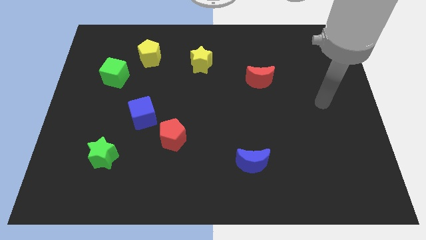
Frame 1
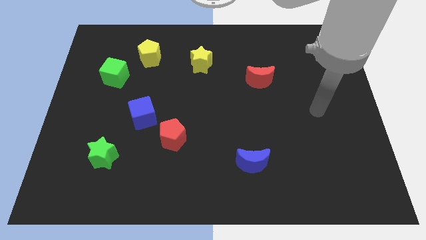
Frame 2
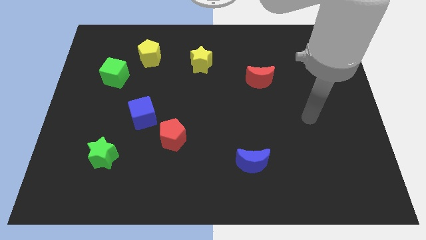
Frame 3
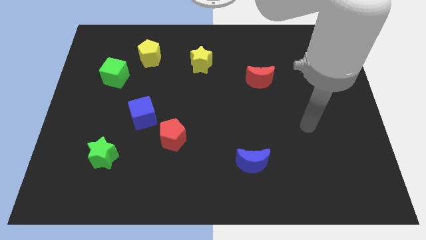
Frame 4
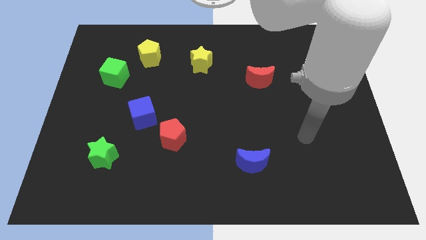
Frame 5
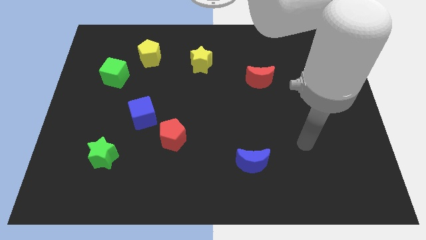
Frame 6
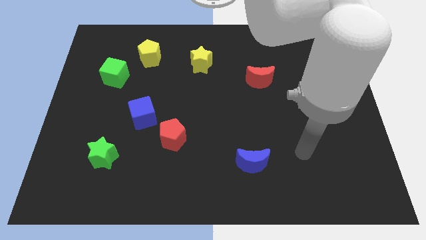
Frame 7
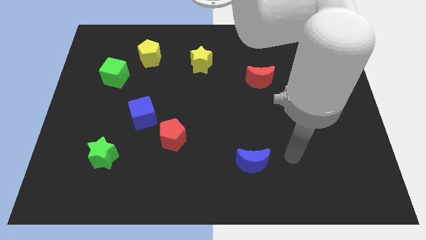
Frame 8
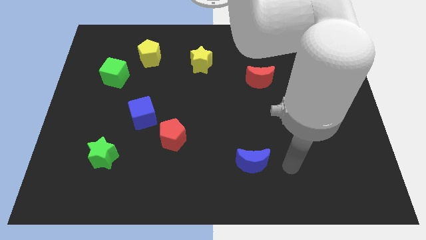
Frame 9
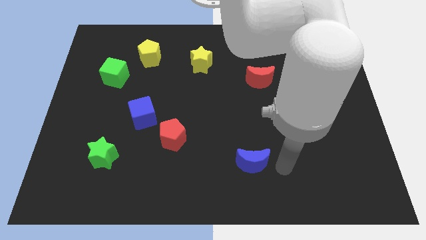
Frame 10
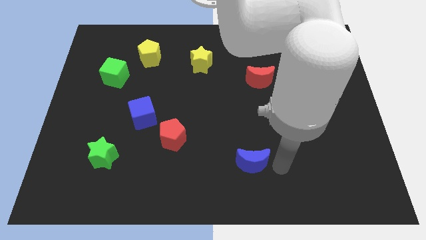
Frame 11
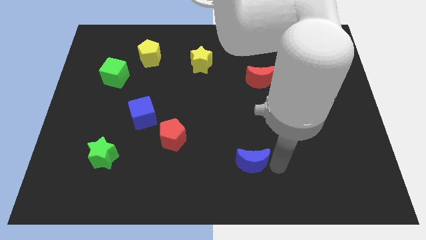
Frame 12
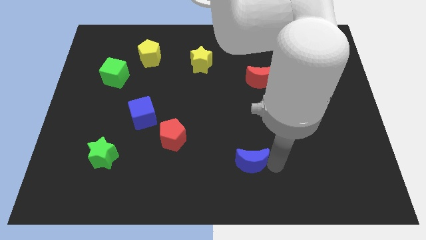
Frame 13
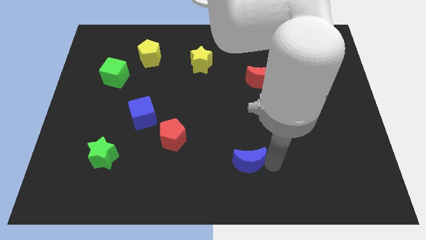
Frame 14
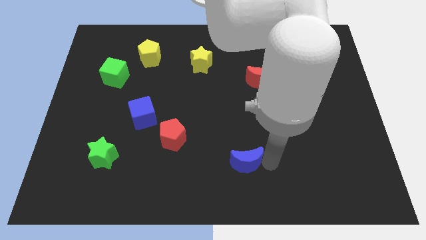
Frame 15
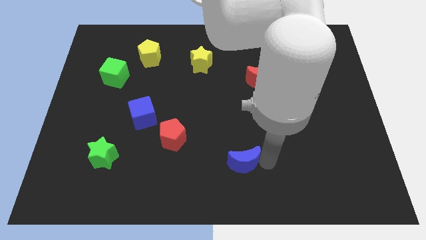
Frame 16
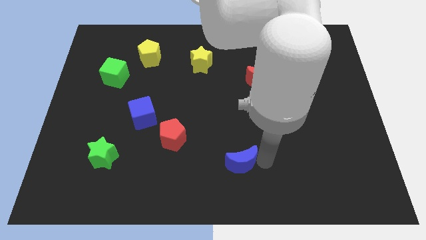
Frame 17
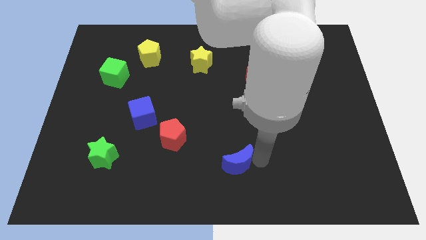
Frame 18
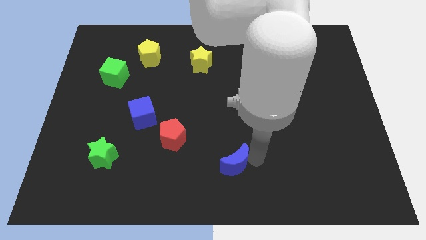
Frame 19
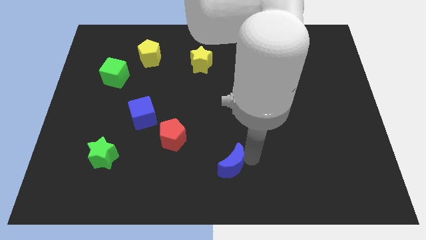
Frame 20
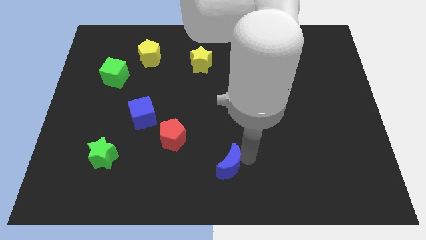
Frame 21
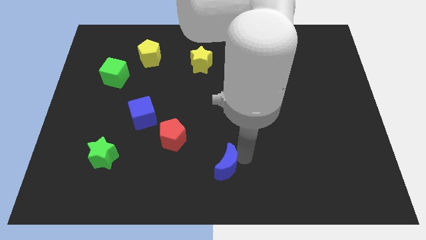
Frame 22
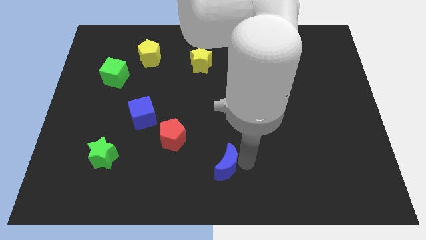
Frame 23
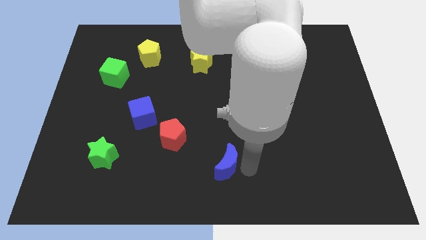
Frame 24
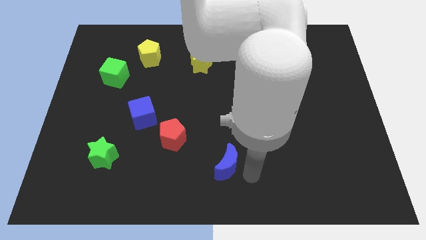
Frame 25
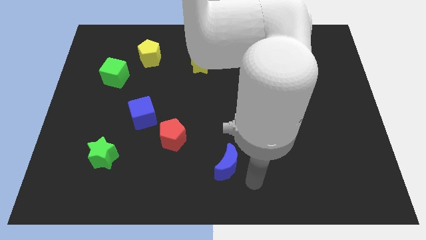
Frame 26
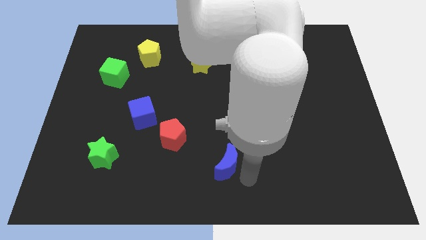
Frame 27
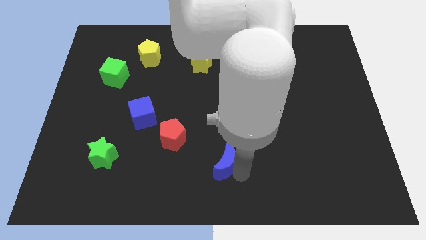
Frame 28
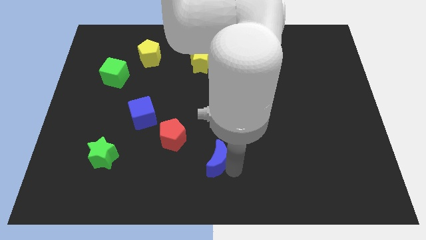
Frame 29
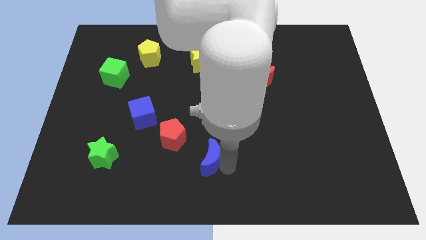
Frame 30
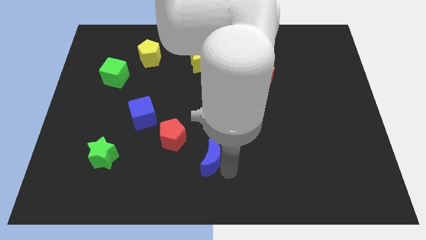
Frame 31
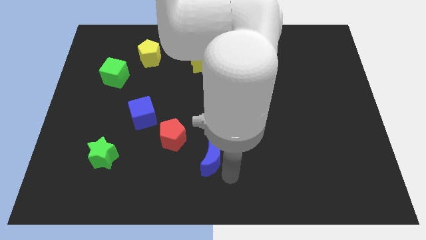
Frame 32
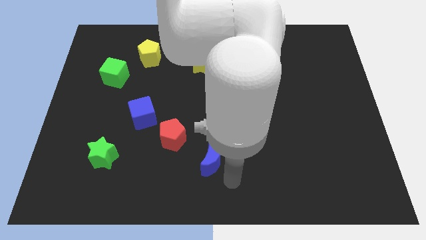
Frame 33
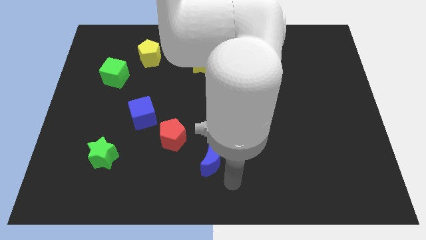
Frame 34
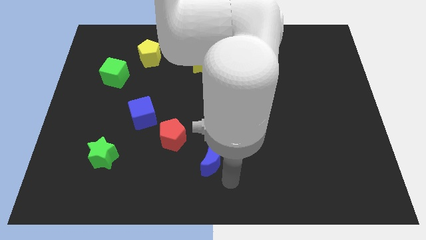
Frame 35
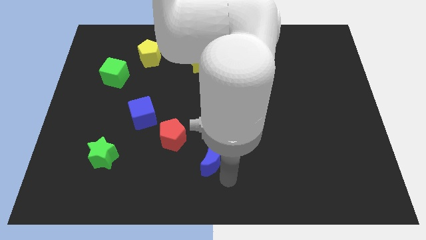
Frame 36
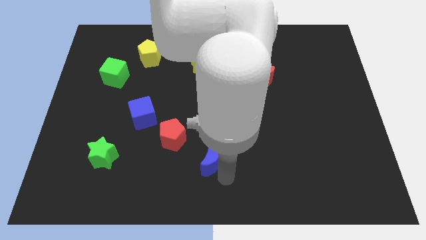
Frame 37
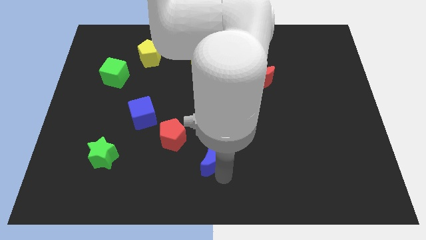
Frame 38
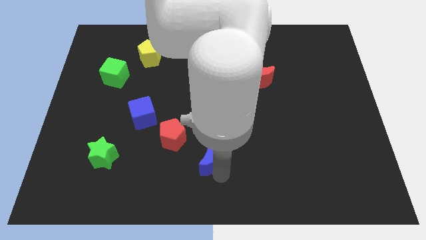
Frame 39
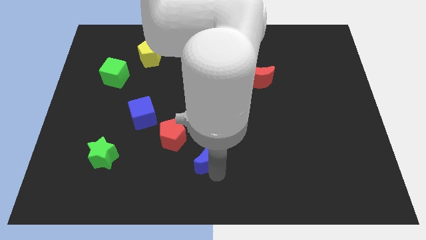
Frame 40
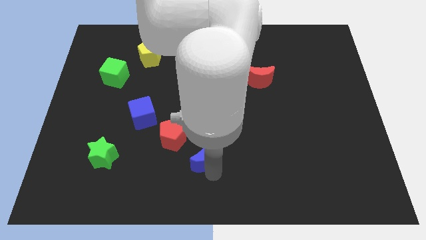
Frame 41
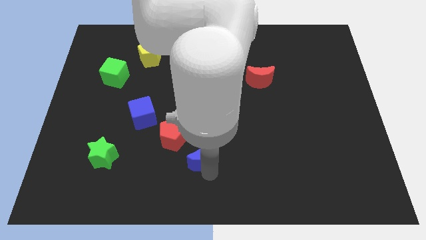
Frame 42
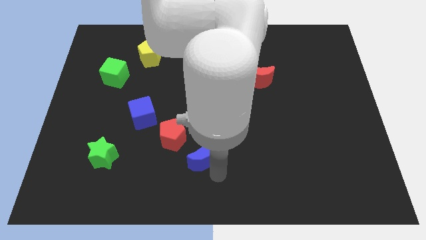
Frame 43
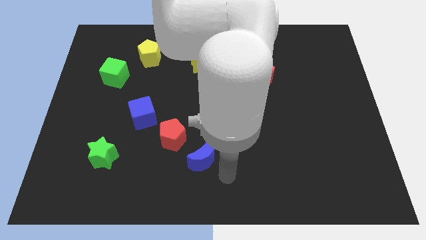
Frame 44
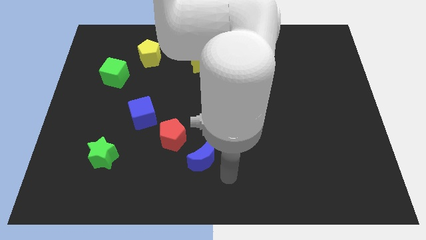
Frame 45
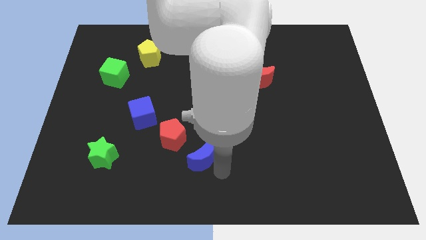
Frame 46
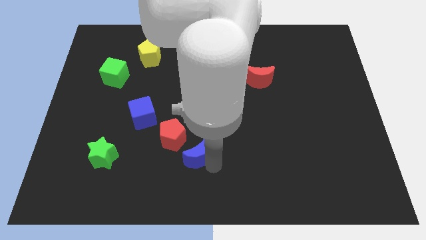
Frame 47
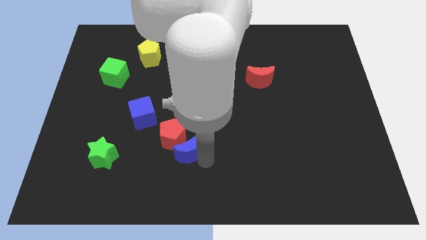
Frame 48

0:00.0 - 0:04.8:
push the blue moon next to the red pentagon

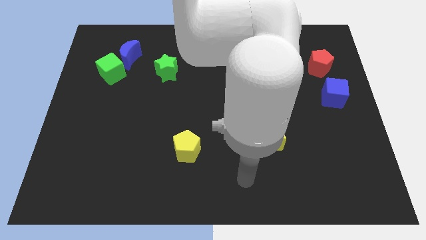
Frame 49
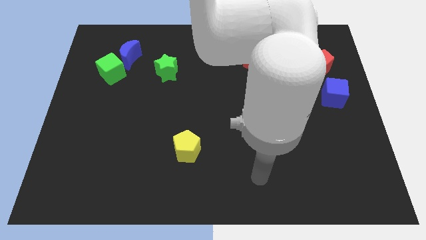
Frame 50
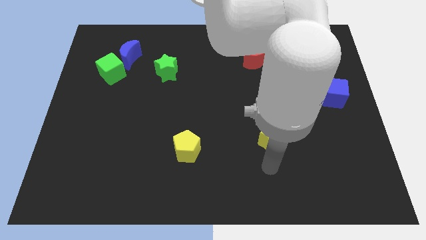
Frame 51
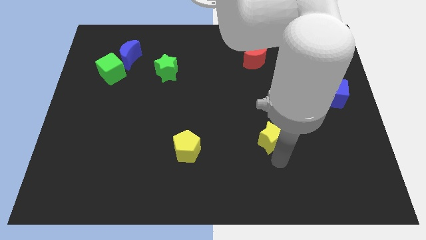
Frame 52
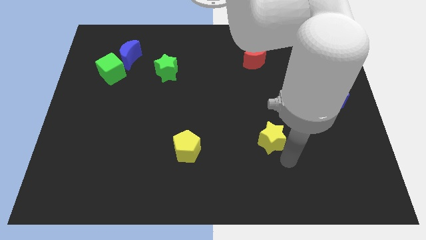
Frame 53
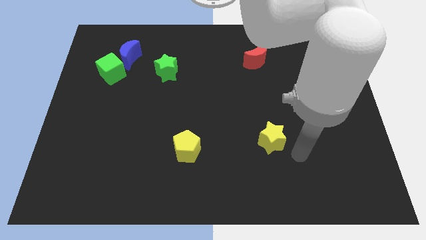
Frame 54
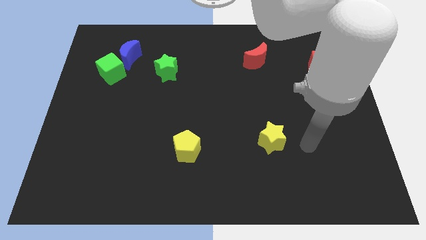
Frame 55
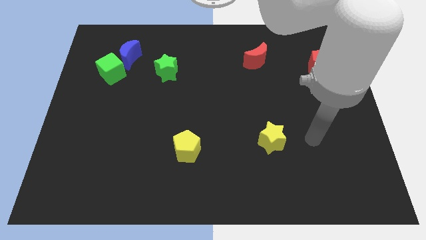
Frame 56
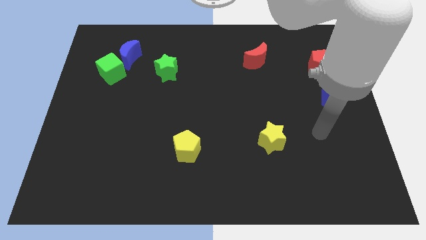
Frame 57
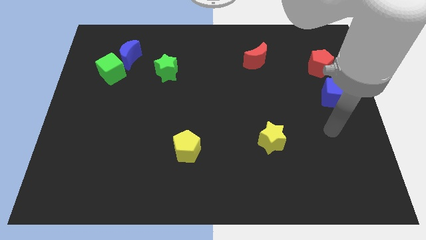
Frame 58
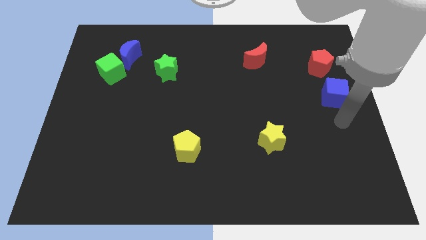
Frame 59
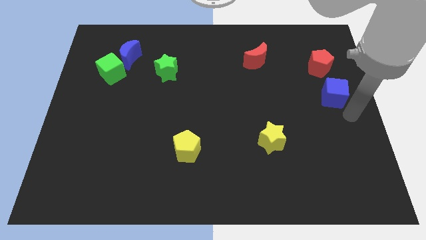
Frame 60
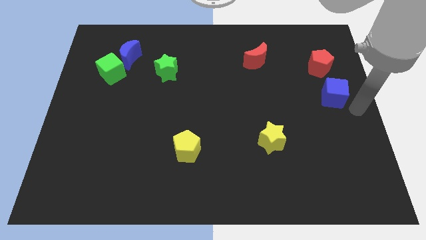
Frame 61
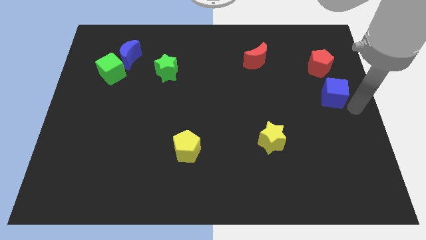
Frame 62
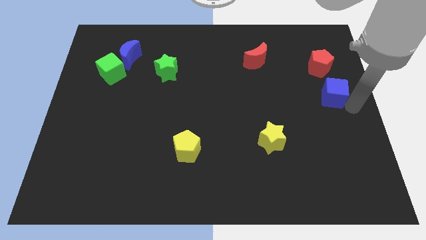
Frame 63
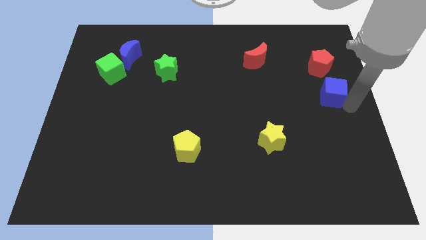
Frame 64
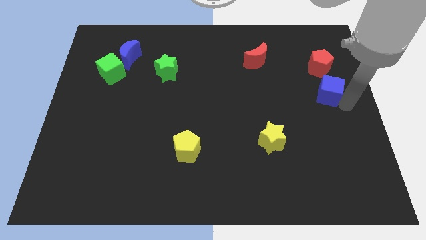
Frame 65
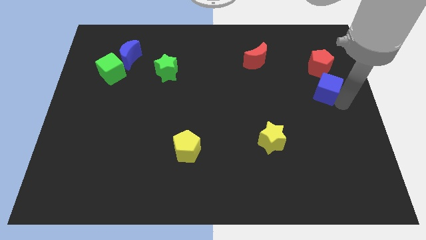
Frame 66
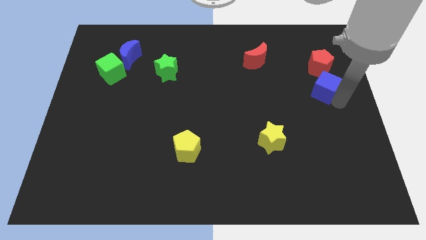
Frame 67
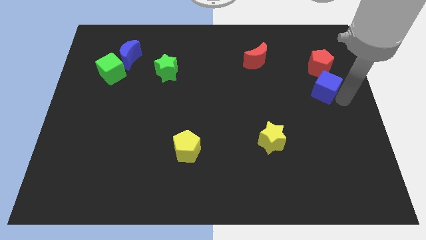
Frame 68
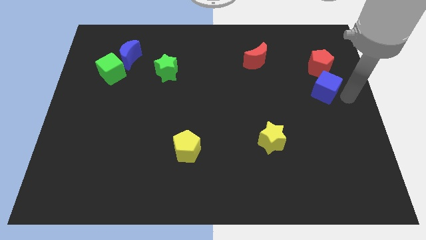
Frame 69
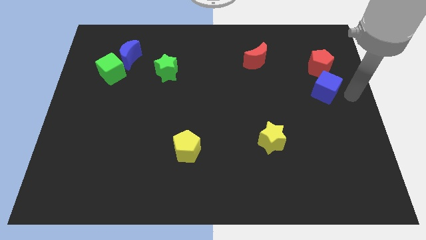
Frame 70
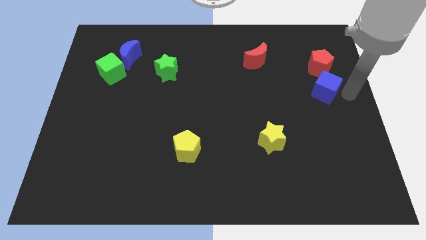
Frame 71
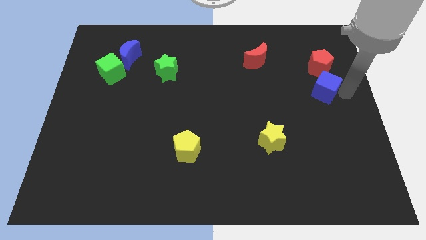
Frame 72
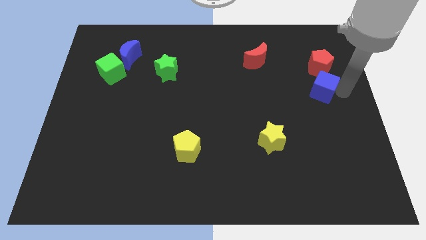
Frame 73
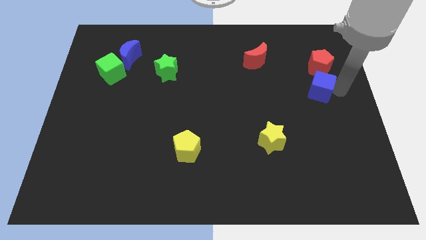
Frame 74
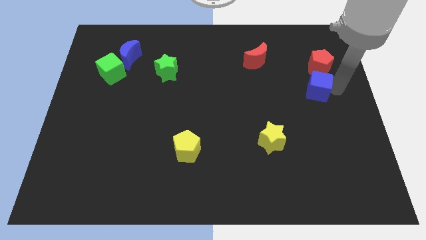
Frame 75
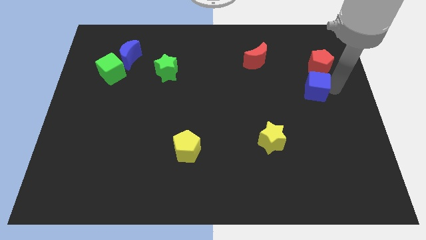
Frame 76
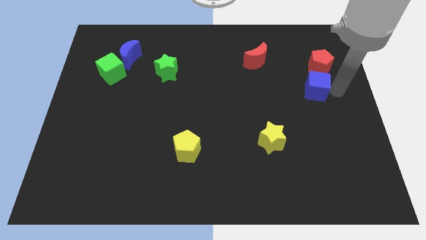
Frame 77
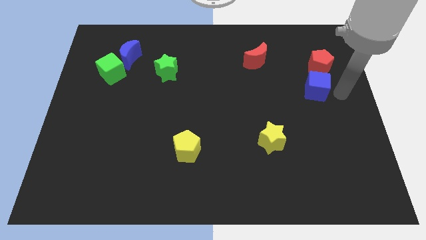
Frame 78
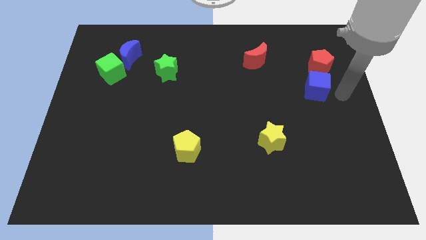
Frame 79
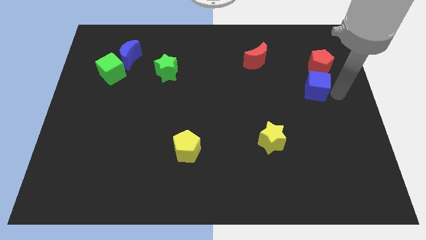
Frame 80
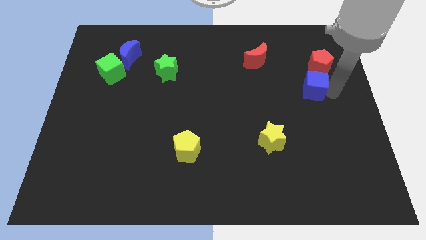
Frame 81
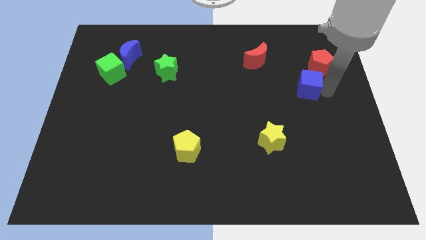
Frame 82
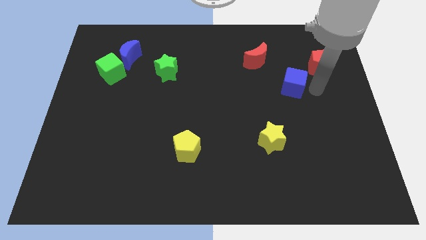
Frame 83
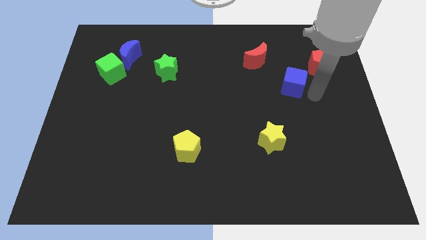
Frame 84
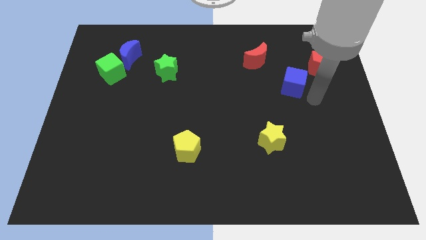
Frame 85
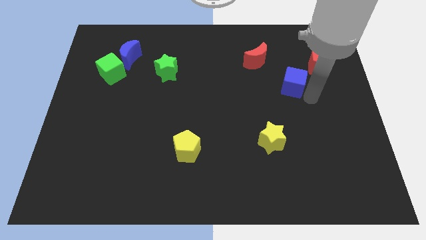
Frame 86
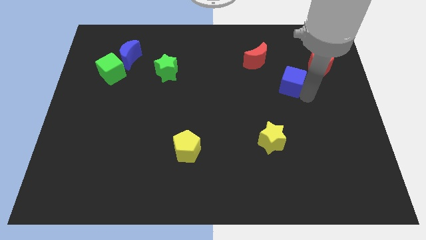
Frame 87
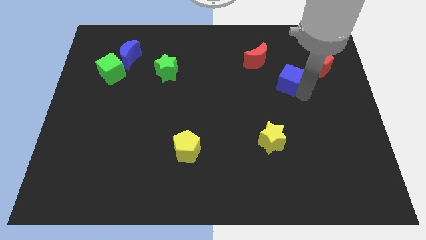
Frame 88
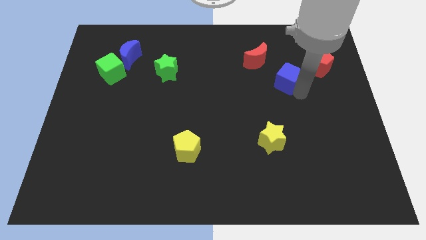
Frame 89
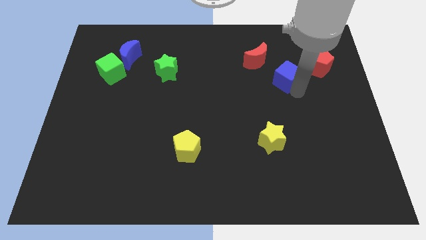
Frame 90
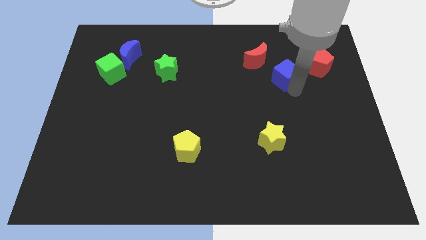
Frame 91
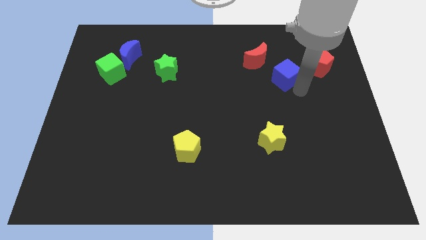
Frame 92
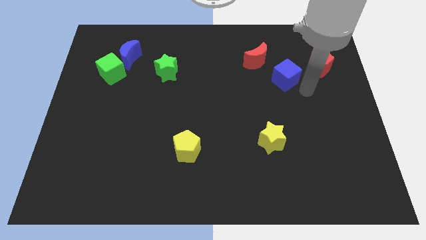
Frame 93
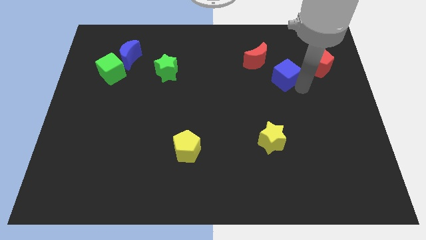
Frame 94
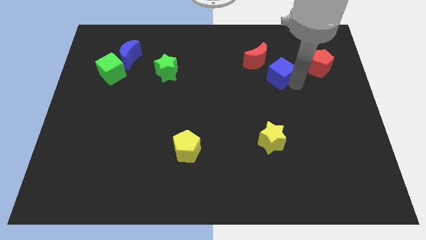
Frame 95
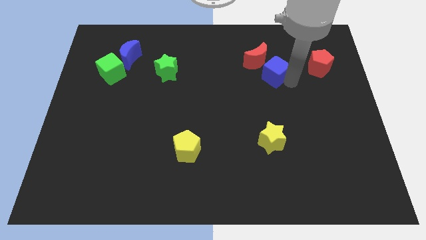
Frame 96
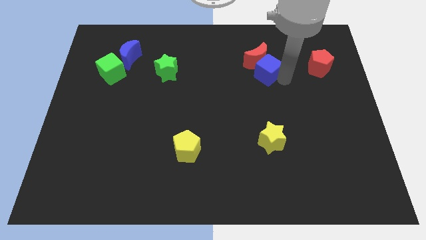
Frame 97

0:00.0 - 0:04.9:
put the blue cube next to the red moon
